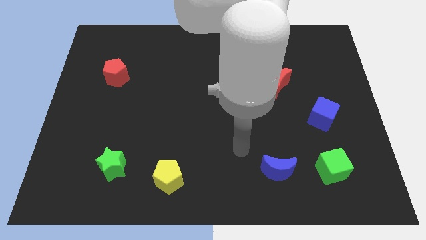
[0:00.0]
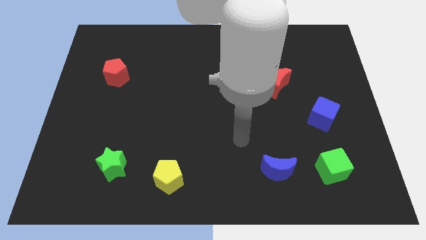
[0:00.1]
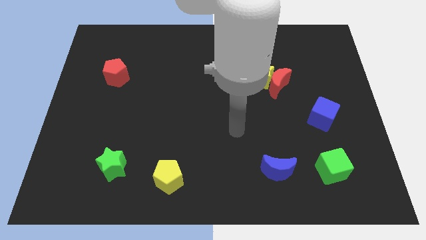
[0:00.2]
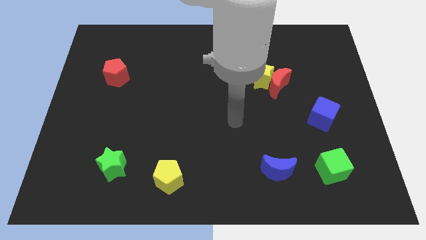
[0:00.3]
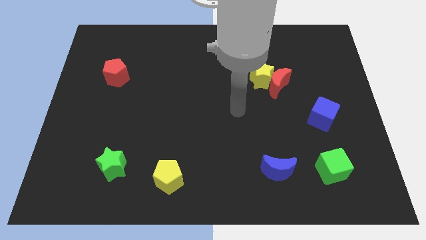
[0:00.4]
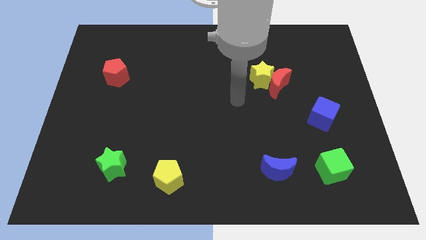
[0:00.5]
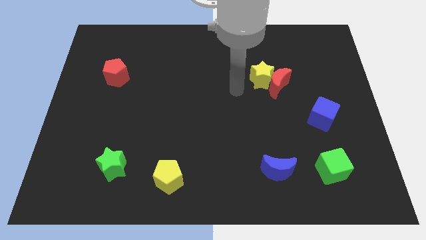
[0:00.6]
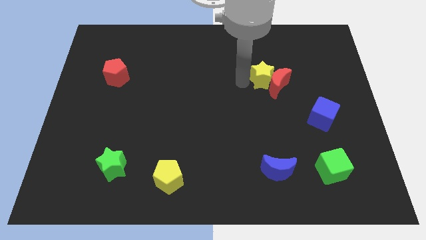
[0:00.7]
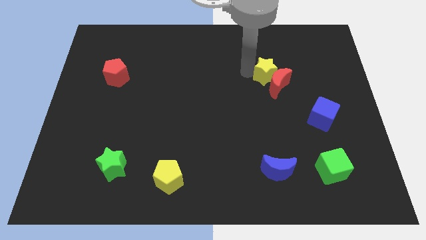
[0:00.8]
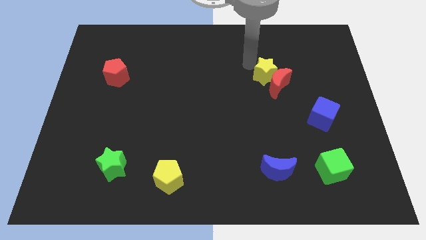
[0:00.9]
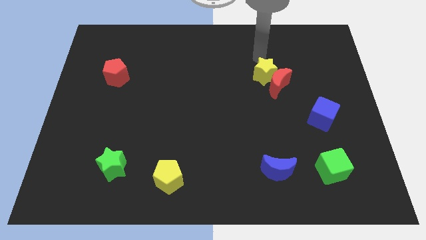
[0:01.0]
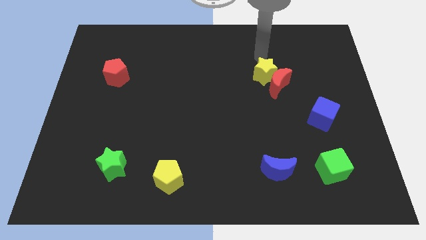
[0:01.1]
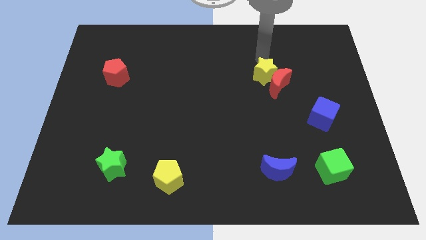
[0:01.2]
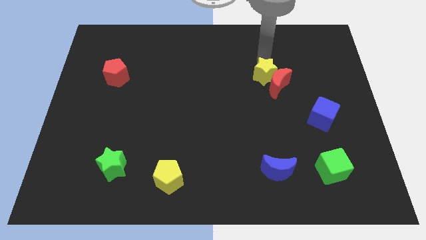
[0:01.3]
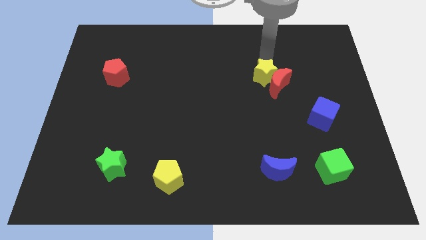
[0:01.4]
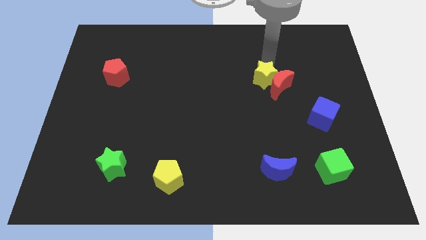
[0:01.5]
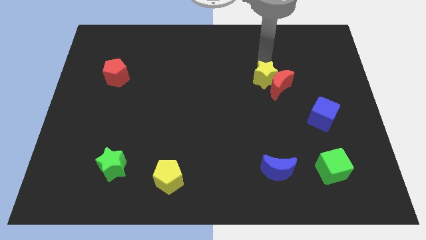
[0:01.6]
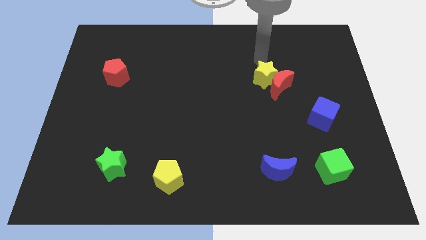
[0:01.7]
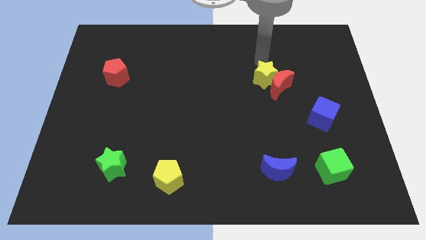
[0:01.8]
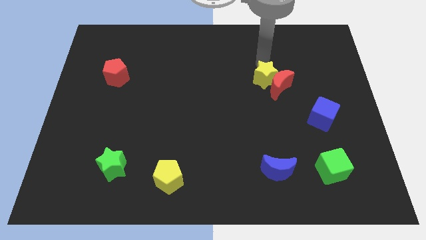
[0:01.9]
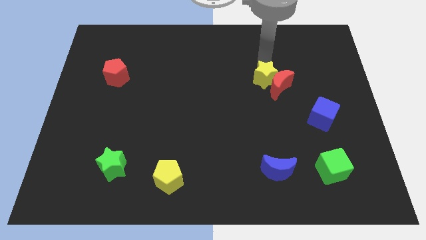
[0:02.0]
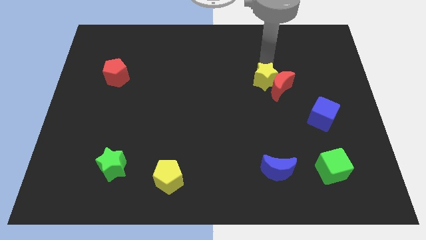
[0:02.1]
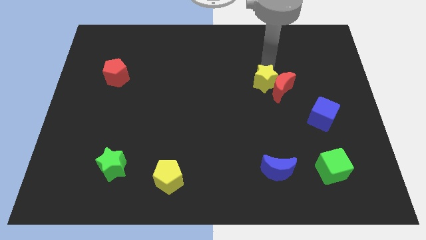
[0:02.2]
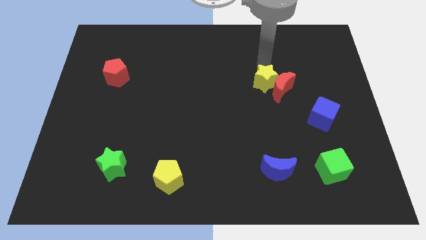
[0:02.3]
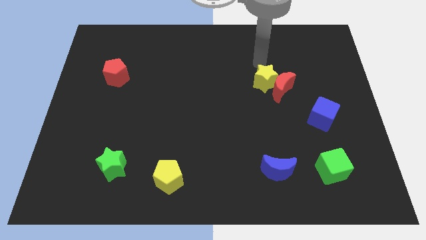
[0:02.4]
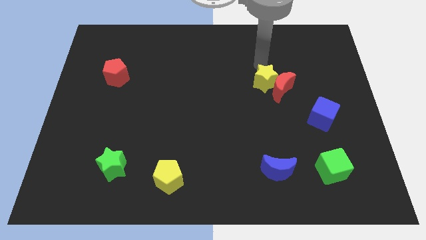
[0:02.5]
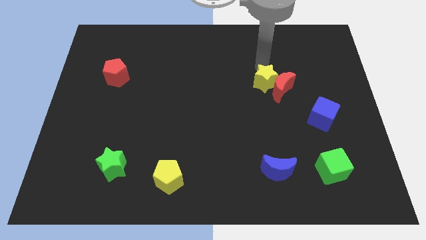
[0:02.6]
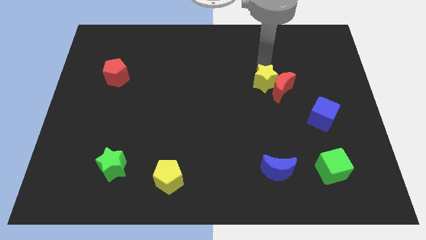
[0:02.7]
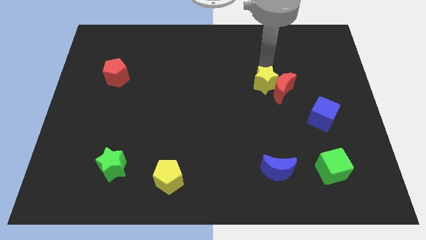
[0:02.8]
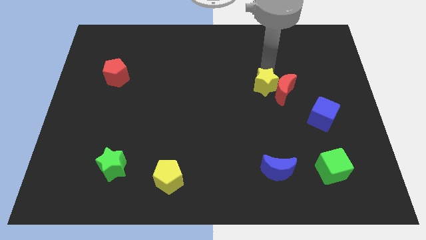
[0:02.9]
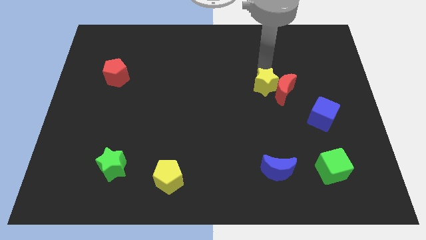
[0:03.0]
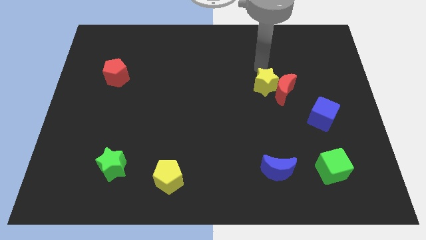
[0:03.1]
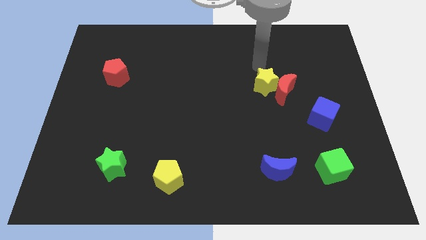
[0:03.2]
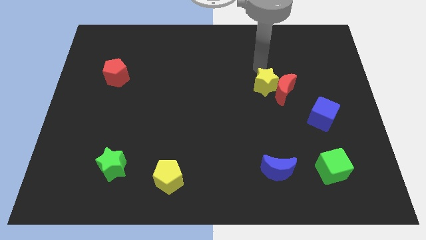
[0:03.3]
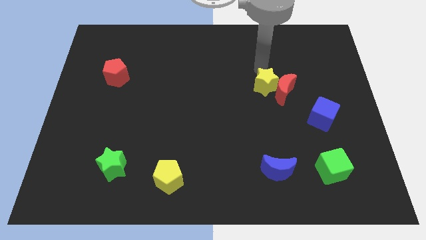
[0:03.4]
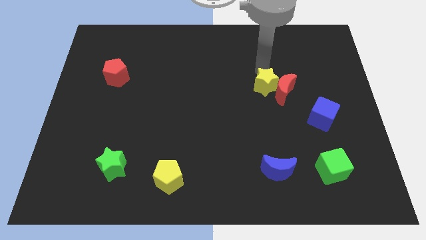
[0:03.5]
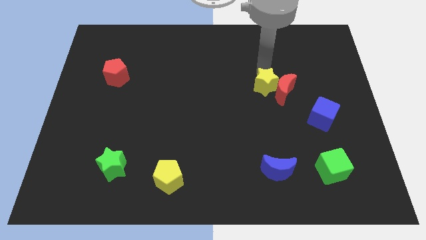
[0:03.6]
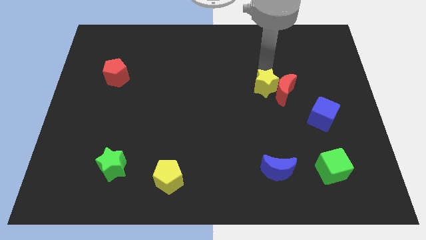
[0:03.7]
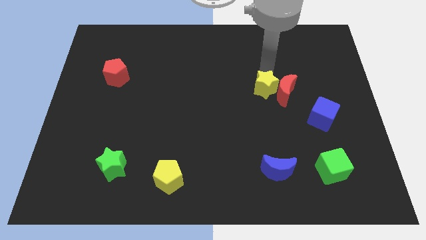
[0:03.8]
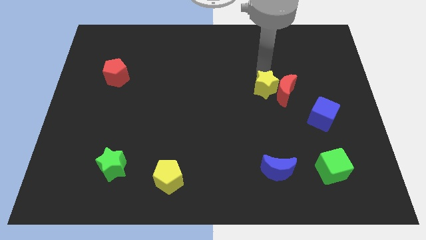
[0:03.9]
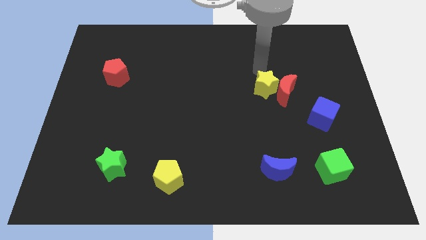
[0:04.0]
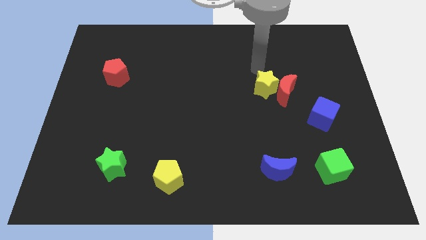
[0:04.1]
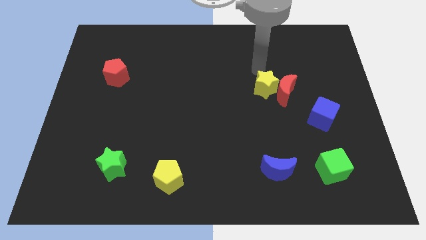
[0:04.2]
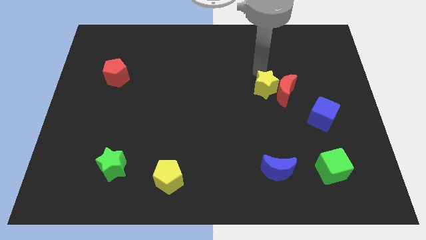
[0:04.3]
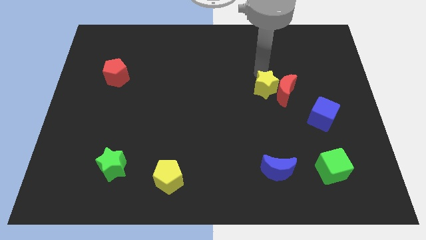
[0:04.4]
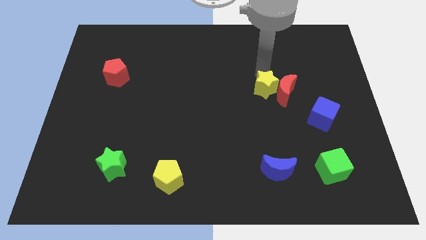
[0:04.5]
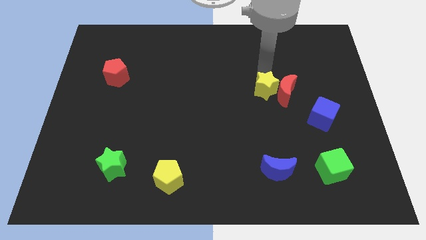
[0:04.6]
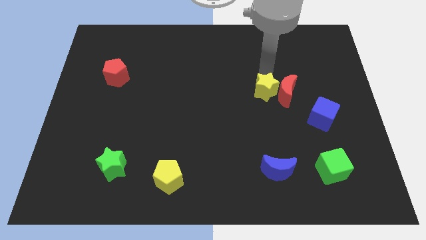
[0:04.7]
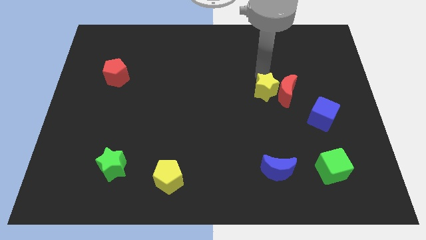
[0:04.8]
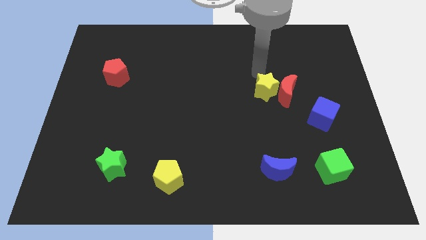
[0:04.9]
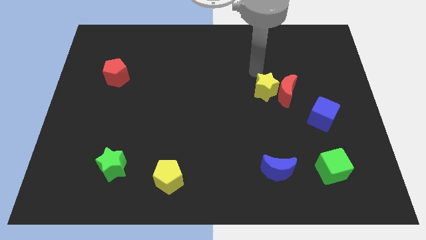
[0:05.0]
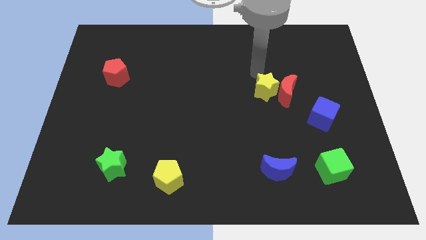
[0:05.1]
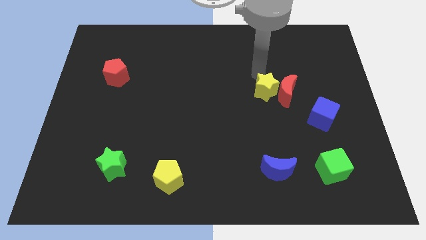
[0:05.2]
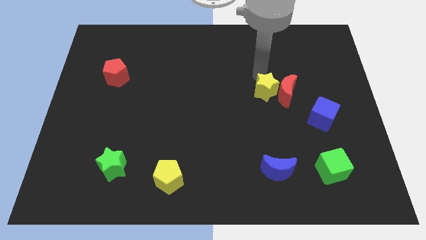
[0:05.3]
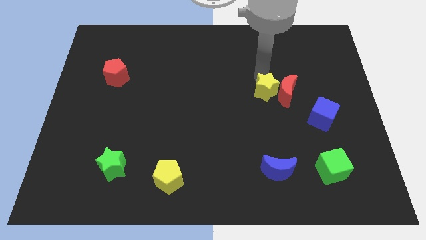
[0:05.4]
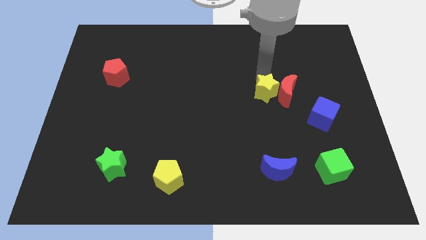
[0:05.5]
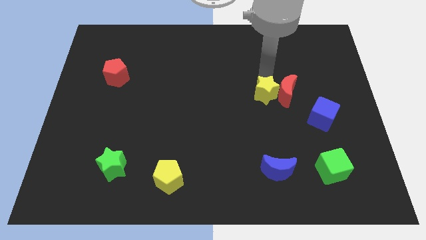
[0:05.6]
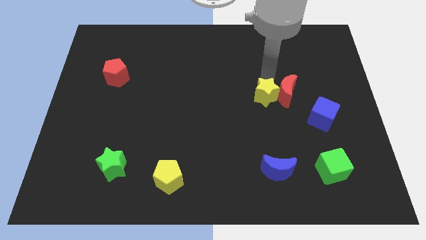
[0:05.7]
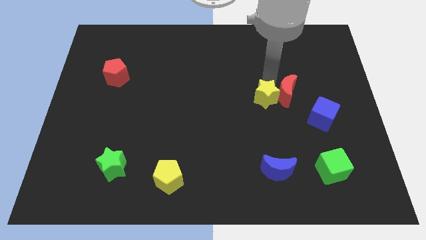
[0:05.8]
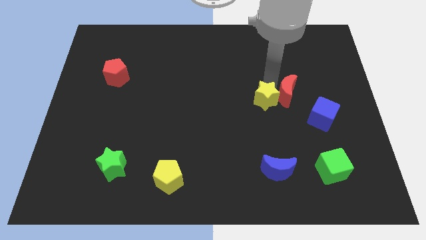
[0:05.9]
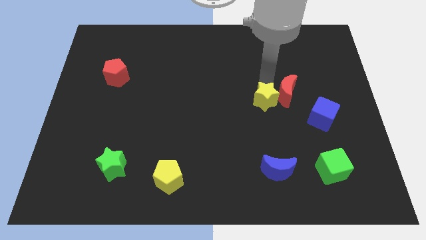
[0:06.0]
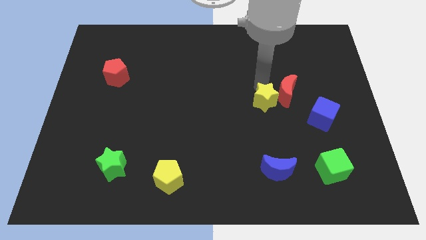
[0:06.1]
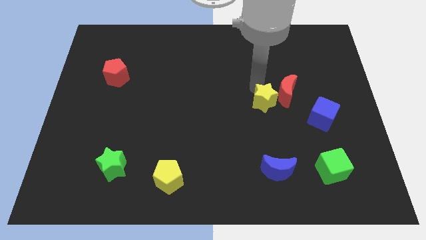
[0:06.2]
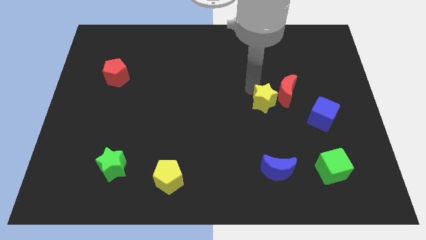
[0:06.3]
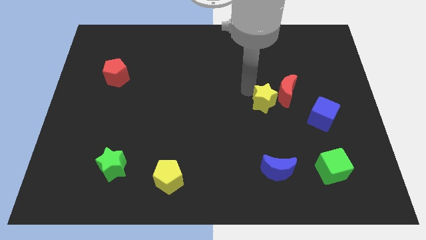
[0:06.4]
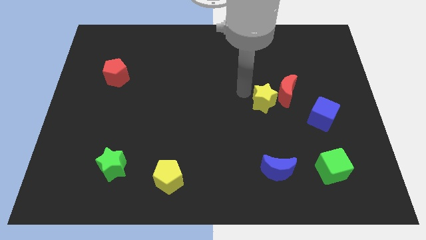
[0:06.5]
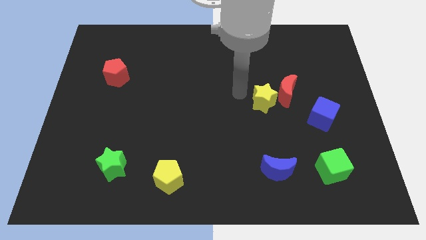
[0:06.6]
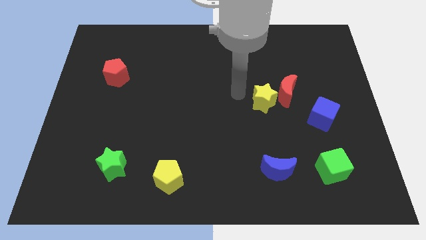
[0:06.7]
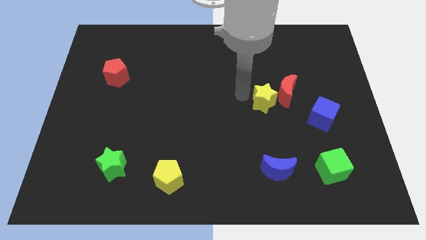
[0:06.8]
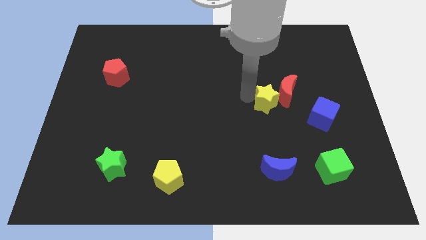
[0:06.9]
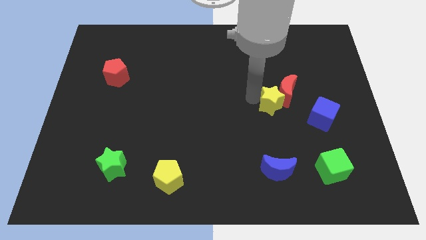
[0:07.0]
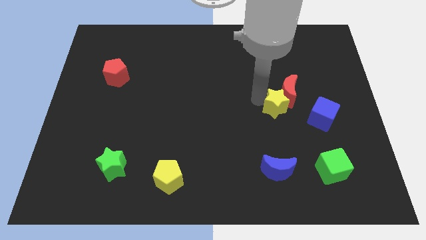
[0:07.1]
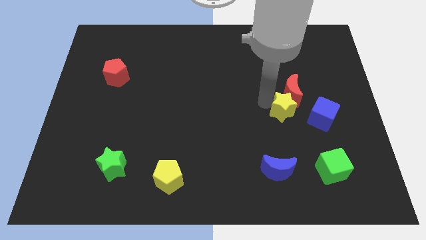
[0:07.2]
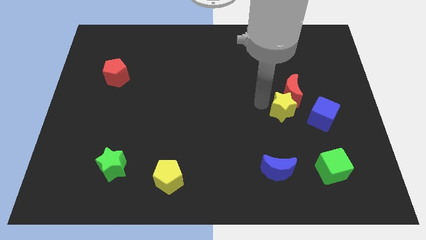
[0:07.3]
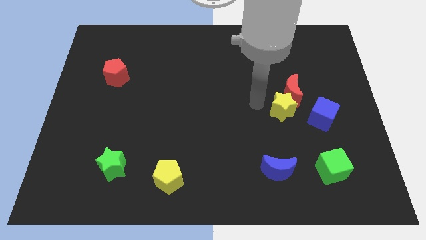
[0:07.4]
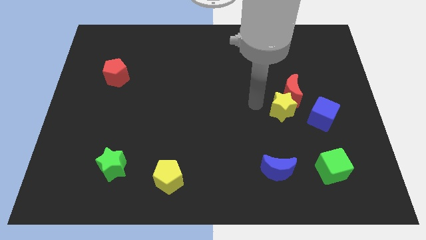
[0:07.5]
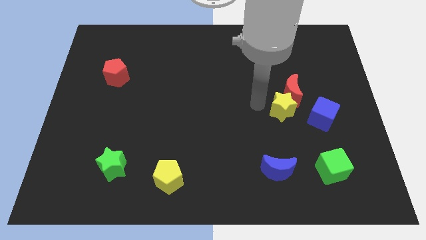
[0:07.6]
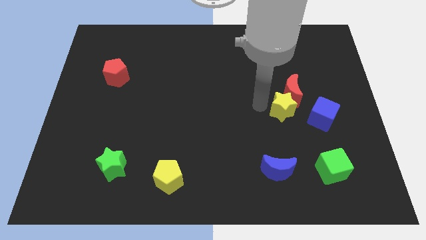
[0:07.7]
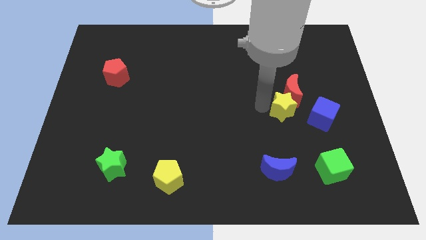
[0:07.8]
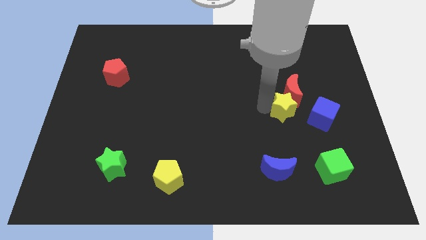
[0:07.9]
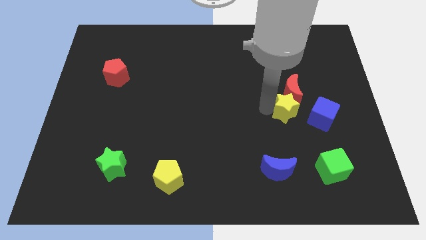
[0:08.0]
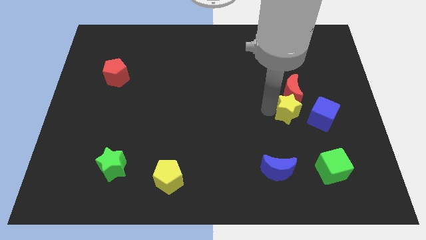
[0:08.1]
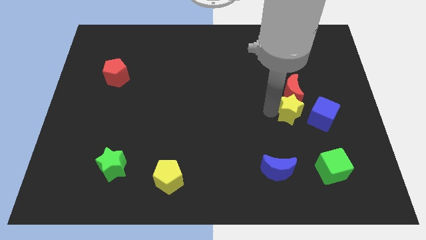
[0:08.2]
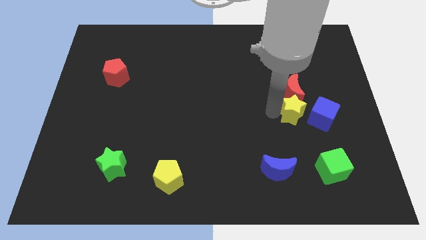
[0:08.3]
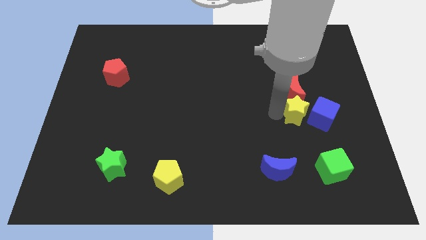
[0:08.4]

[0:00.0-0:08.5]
slide the yellow star close to the blue cube
